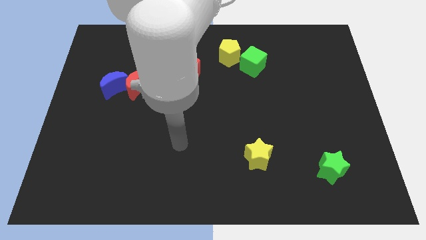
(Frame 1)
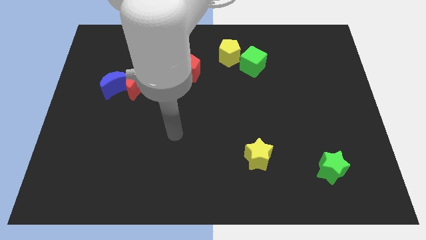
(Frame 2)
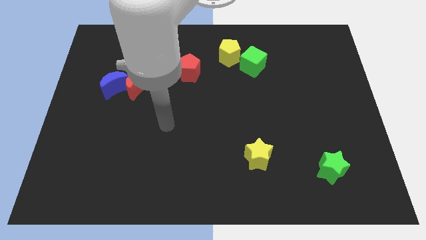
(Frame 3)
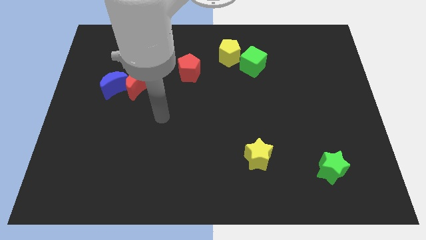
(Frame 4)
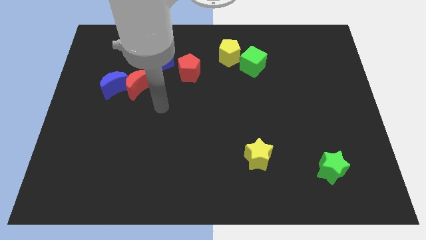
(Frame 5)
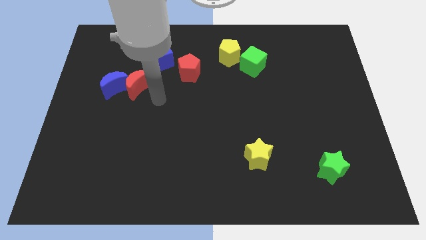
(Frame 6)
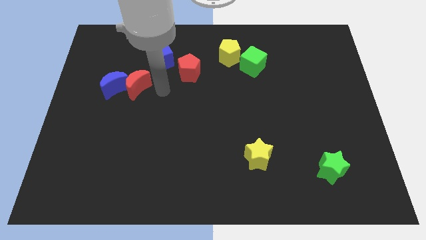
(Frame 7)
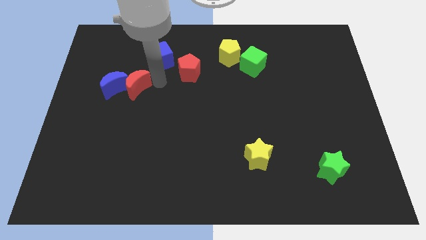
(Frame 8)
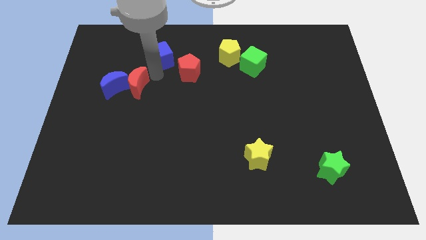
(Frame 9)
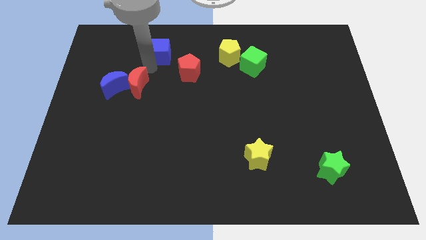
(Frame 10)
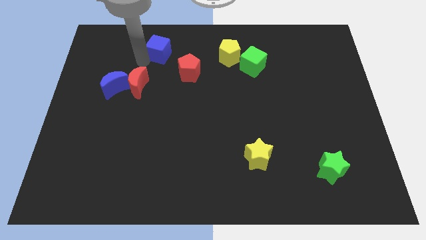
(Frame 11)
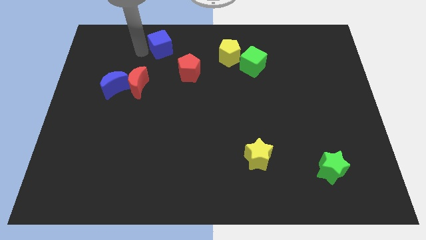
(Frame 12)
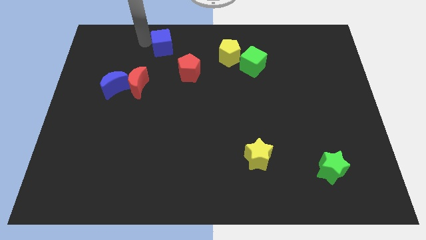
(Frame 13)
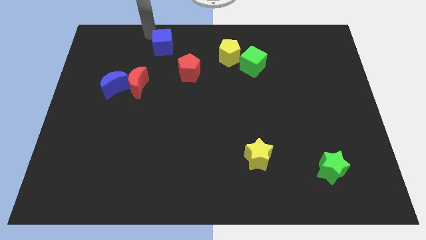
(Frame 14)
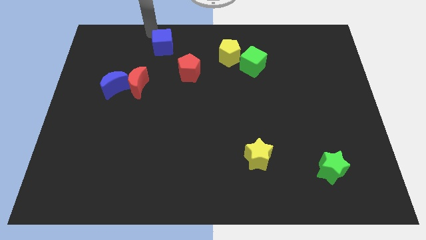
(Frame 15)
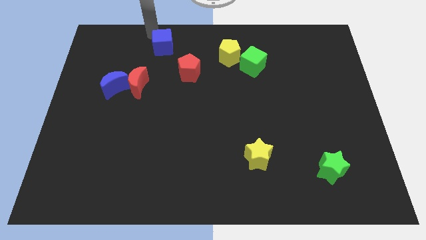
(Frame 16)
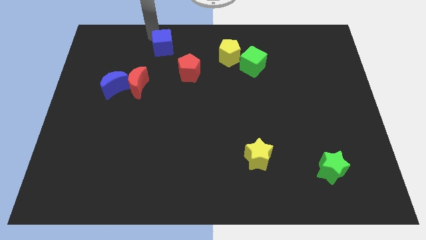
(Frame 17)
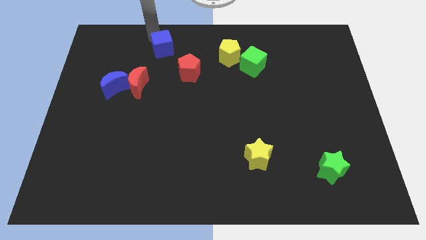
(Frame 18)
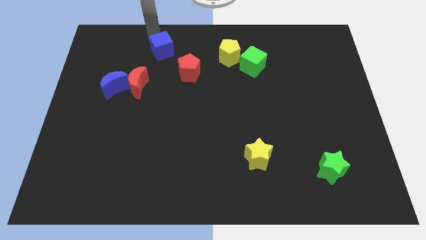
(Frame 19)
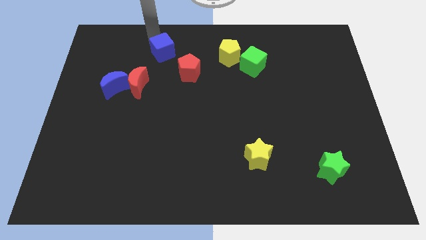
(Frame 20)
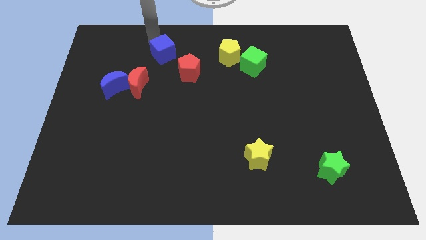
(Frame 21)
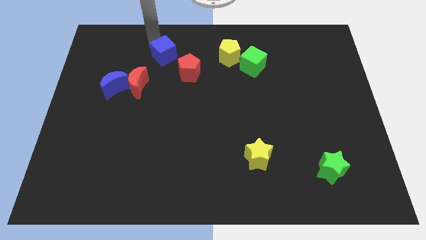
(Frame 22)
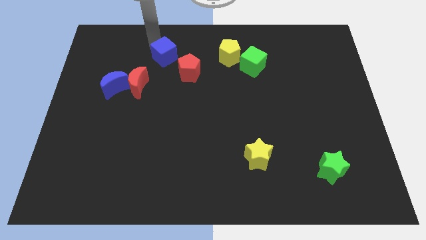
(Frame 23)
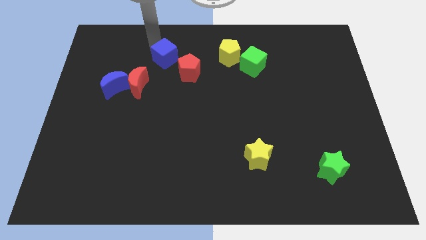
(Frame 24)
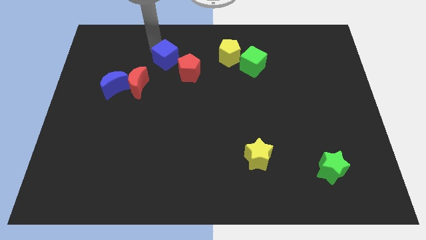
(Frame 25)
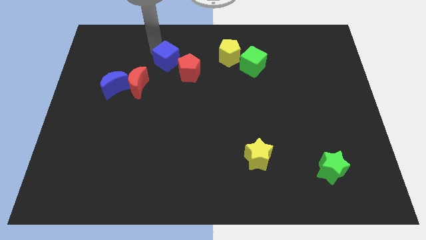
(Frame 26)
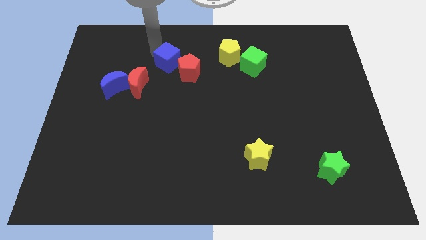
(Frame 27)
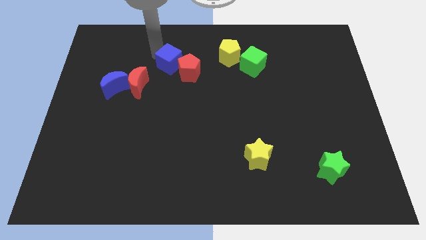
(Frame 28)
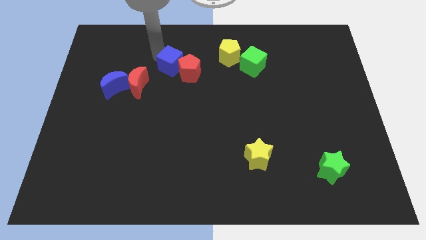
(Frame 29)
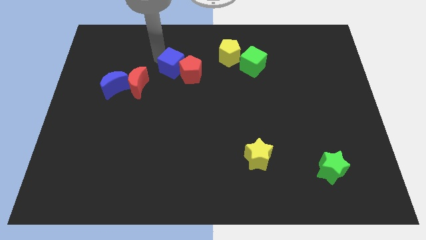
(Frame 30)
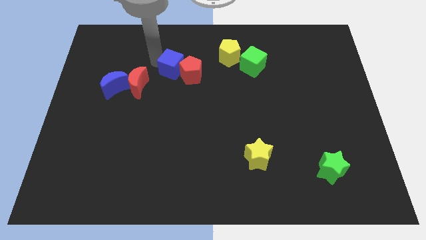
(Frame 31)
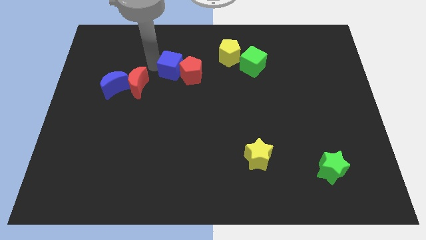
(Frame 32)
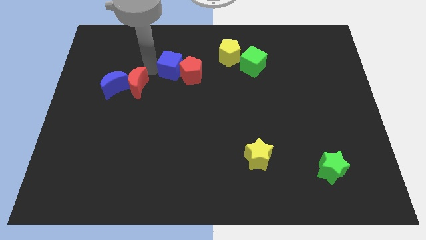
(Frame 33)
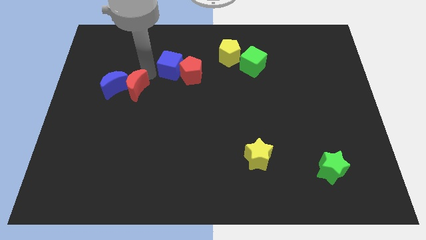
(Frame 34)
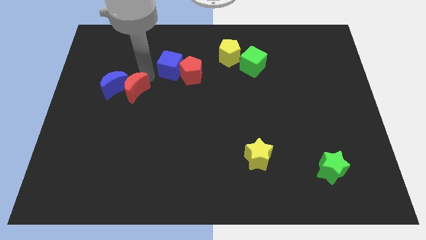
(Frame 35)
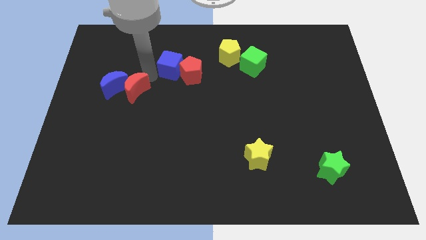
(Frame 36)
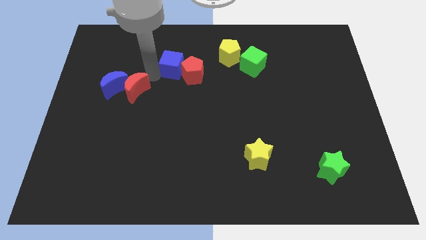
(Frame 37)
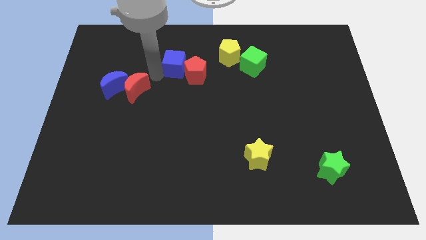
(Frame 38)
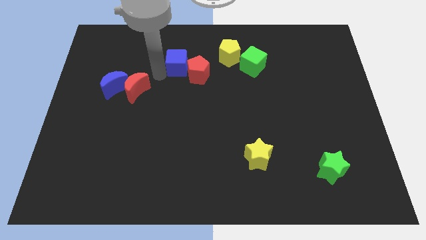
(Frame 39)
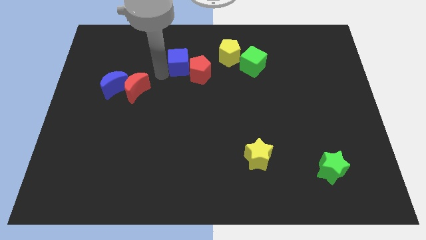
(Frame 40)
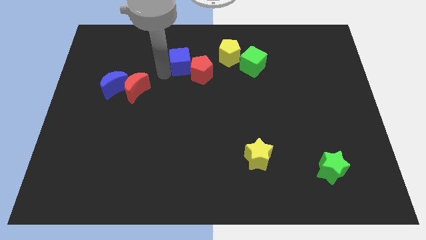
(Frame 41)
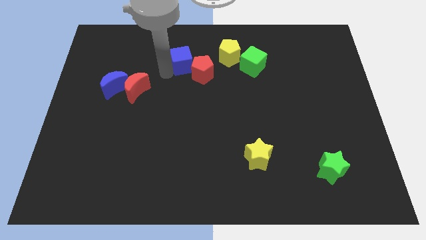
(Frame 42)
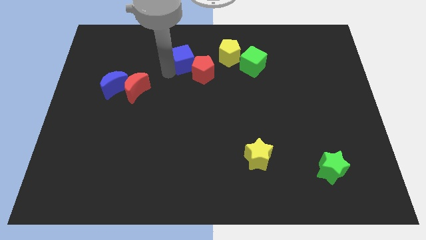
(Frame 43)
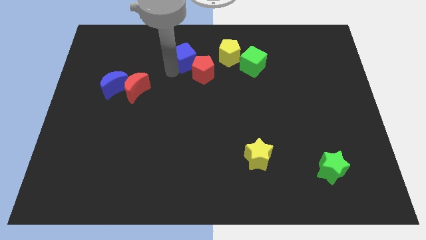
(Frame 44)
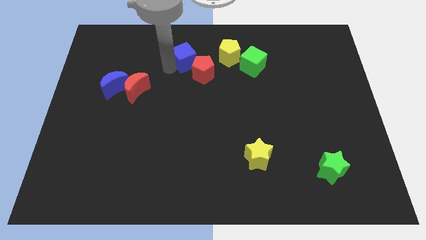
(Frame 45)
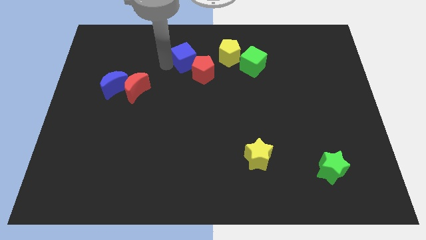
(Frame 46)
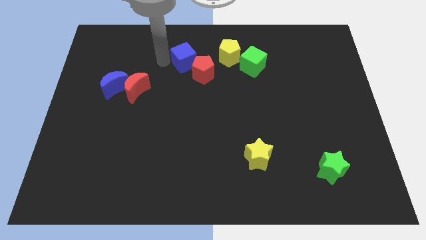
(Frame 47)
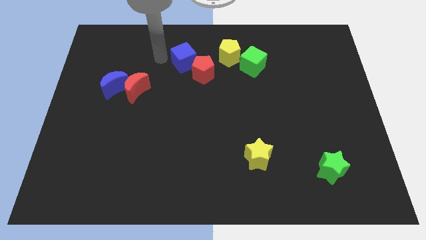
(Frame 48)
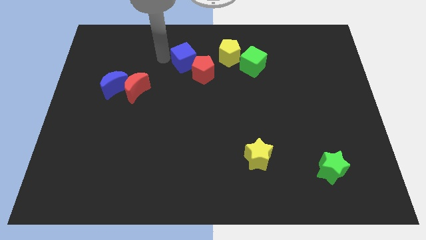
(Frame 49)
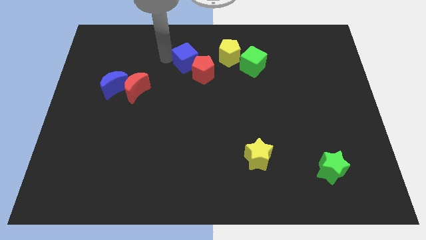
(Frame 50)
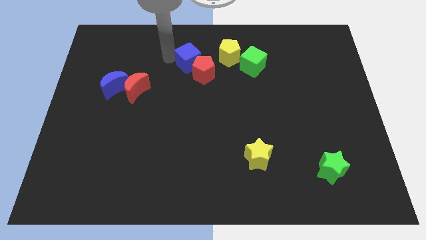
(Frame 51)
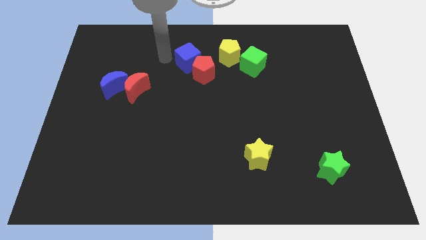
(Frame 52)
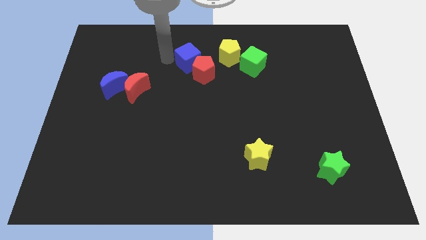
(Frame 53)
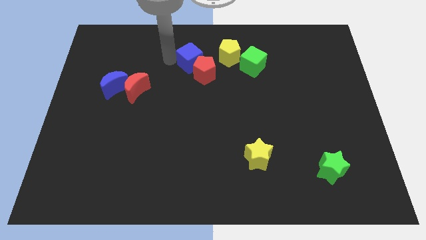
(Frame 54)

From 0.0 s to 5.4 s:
push the blue cube left of the green cube

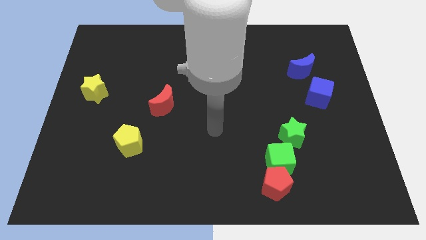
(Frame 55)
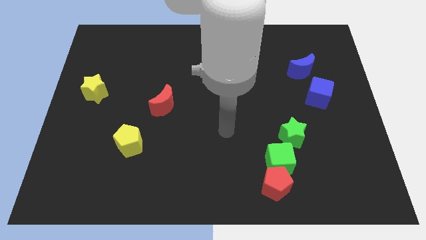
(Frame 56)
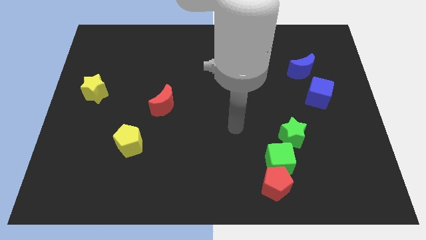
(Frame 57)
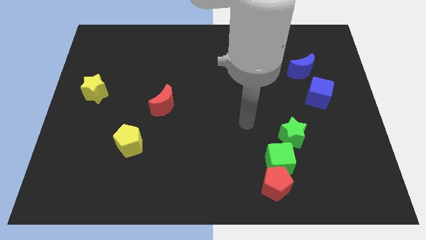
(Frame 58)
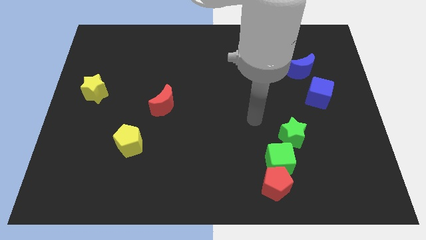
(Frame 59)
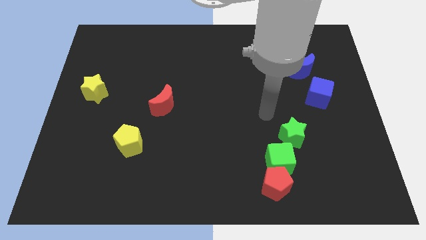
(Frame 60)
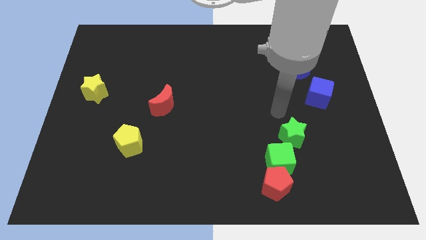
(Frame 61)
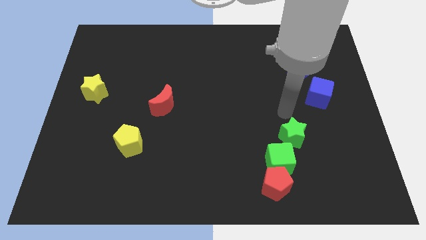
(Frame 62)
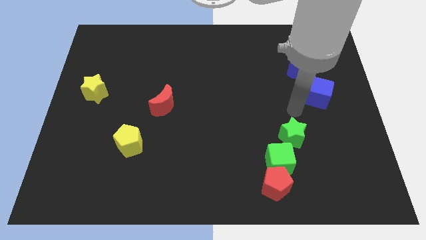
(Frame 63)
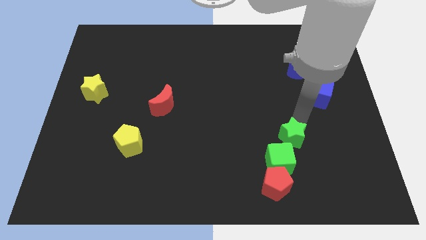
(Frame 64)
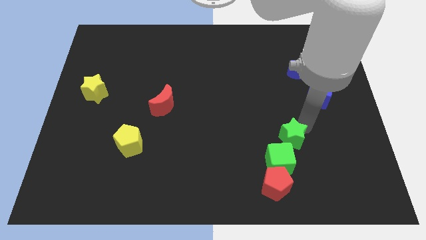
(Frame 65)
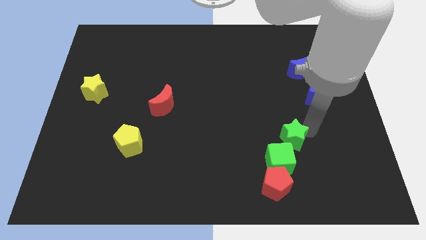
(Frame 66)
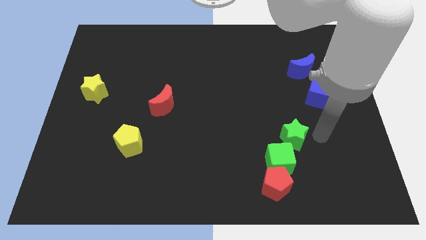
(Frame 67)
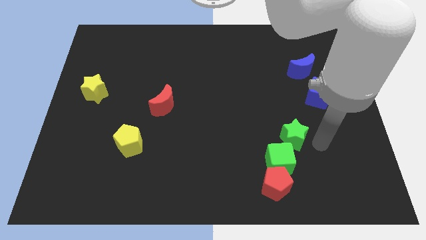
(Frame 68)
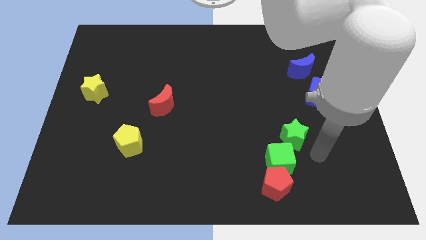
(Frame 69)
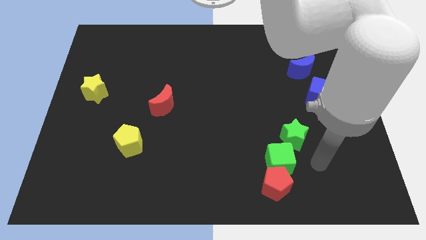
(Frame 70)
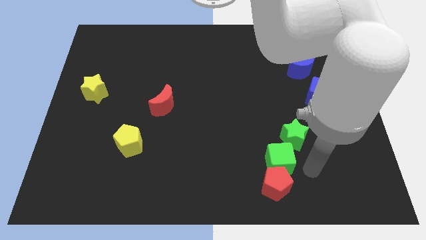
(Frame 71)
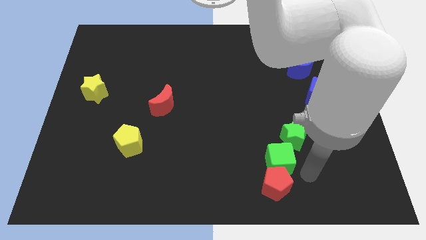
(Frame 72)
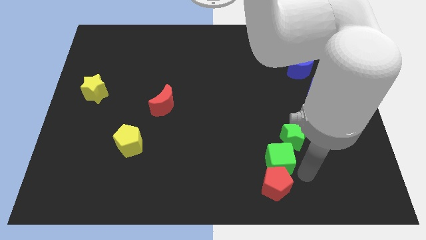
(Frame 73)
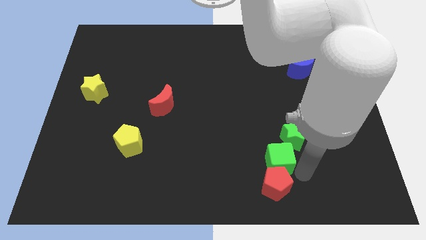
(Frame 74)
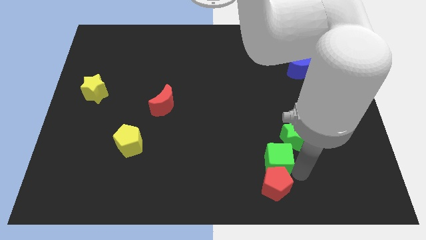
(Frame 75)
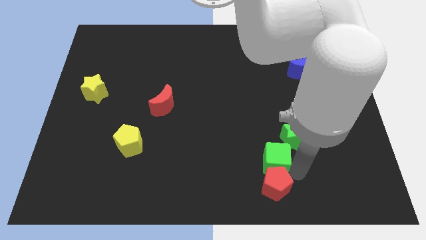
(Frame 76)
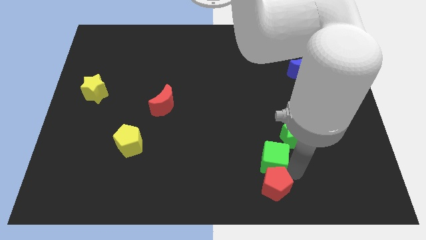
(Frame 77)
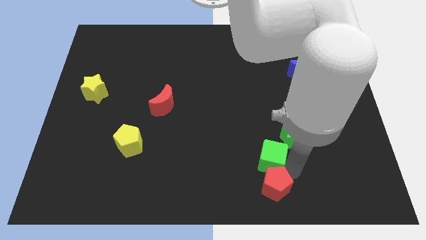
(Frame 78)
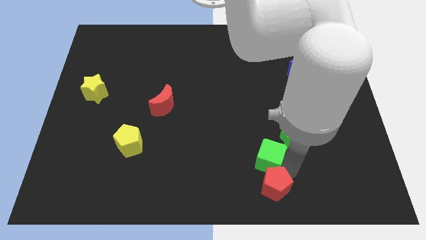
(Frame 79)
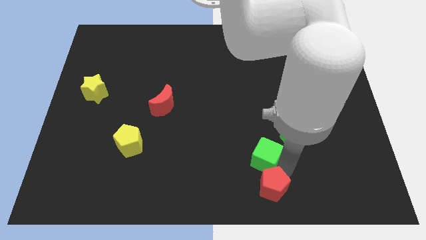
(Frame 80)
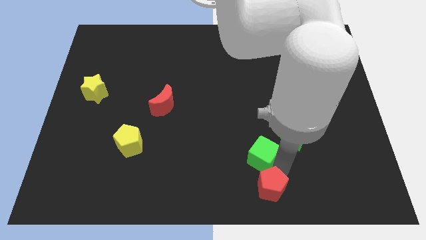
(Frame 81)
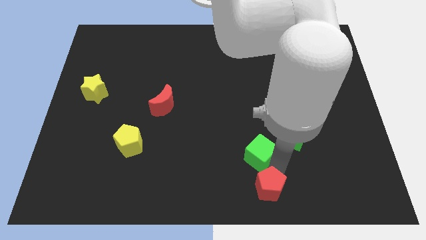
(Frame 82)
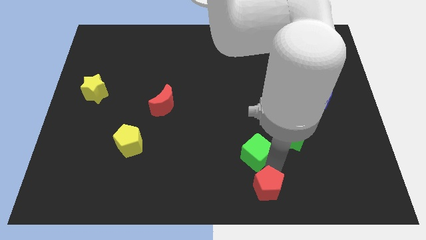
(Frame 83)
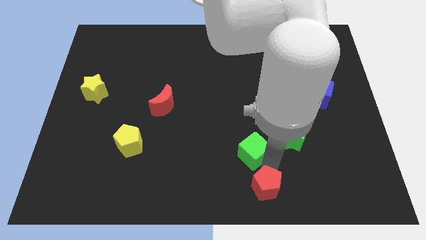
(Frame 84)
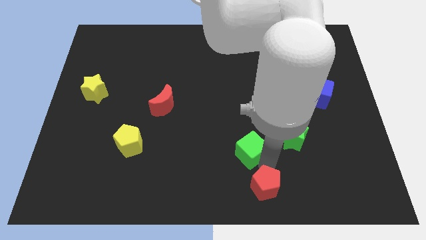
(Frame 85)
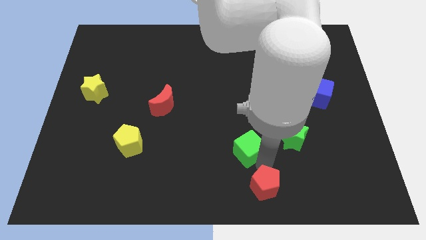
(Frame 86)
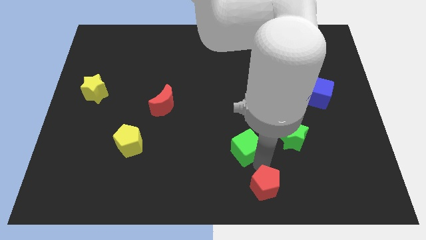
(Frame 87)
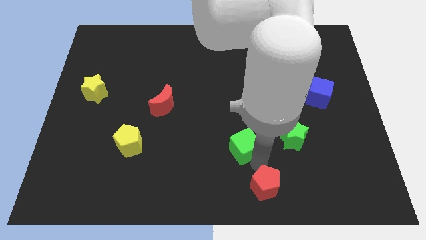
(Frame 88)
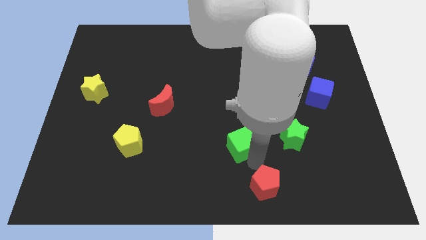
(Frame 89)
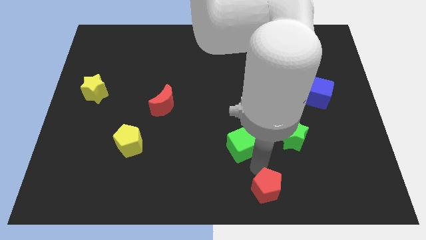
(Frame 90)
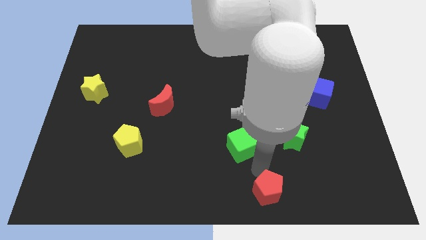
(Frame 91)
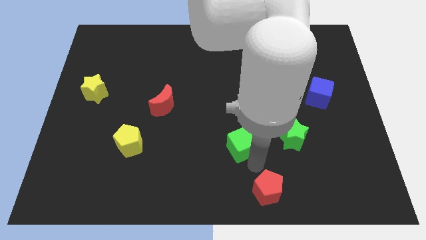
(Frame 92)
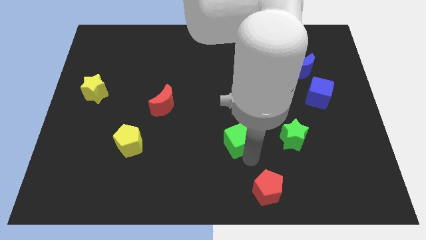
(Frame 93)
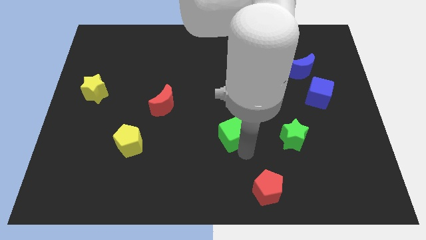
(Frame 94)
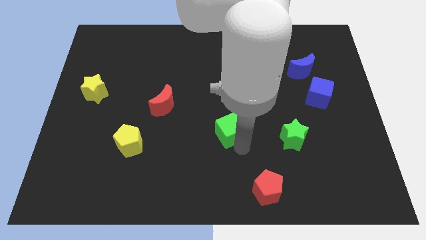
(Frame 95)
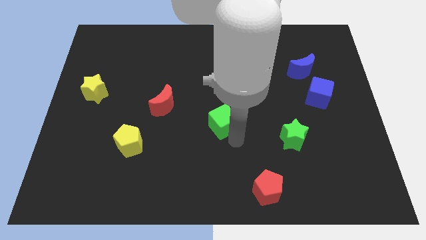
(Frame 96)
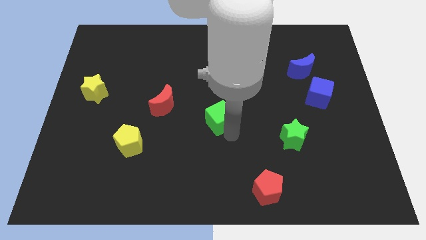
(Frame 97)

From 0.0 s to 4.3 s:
push the green cube to the right side of the red moon
